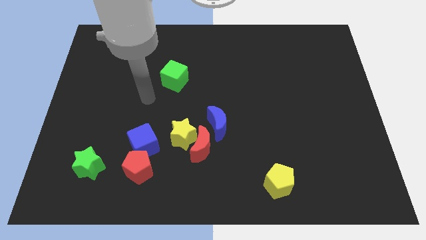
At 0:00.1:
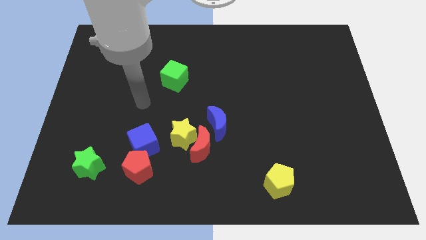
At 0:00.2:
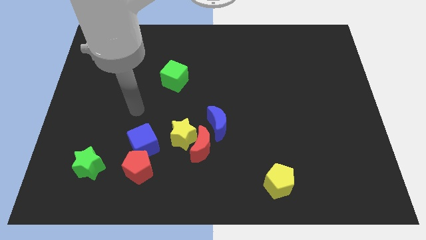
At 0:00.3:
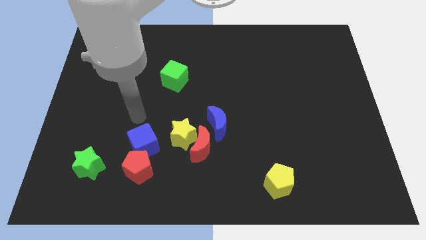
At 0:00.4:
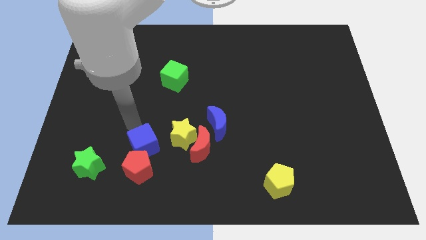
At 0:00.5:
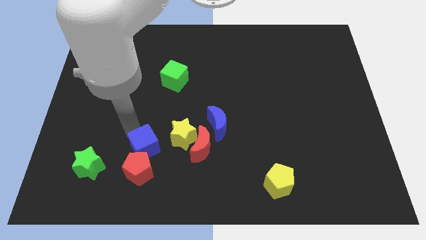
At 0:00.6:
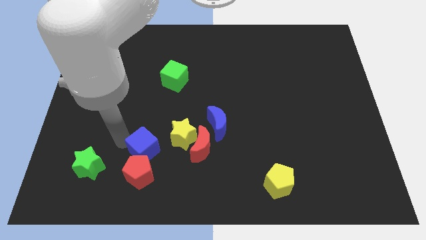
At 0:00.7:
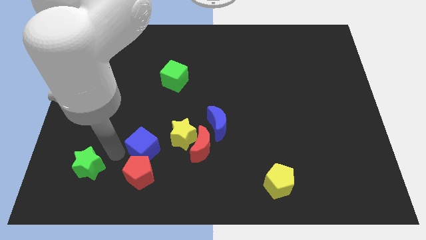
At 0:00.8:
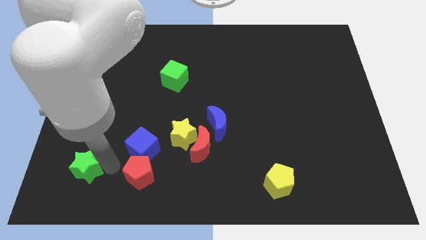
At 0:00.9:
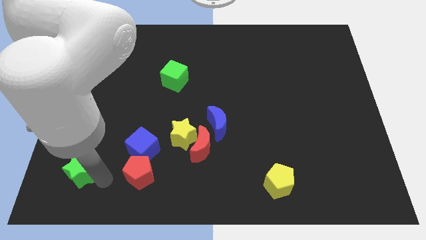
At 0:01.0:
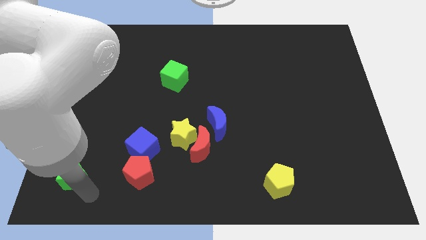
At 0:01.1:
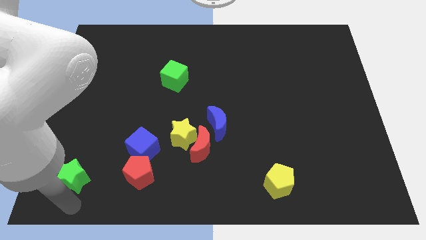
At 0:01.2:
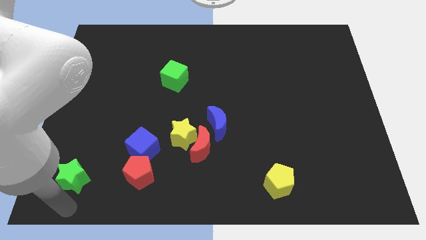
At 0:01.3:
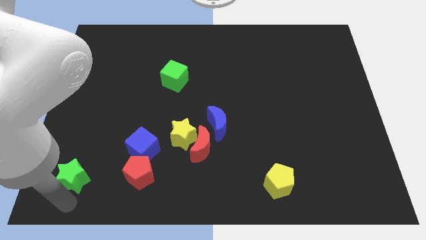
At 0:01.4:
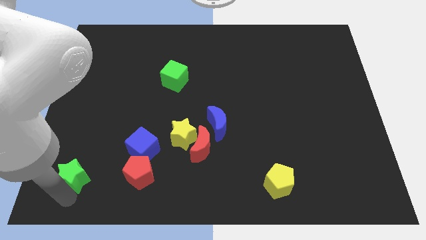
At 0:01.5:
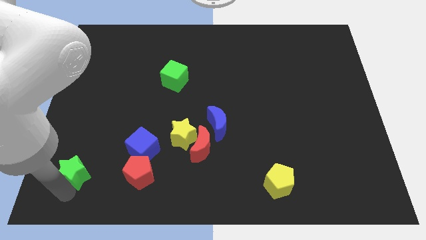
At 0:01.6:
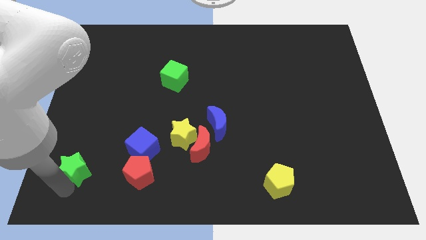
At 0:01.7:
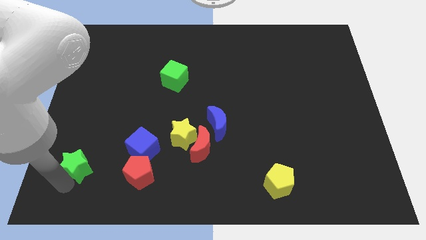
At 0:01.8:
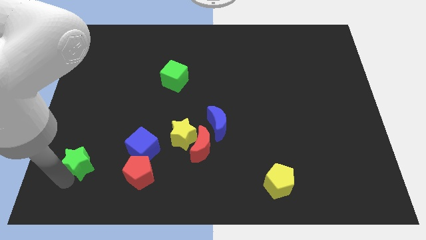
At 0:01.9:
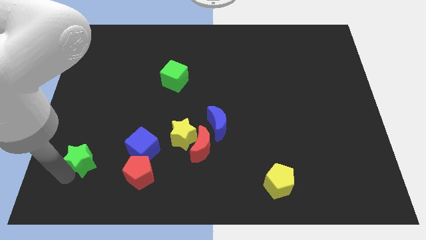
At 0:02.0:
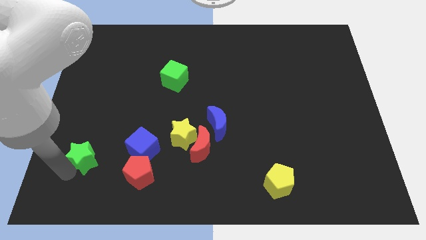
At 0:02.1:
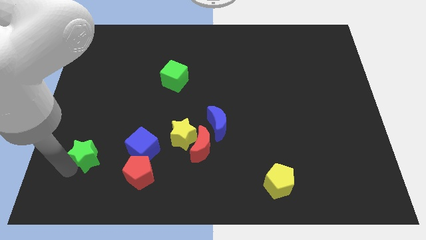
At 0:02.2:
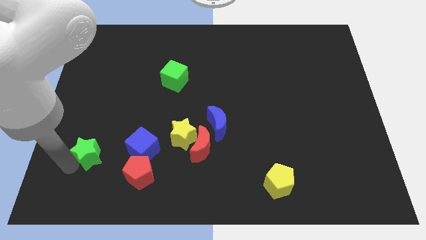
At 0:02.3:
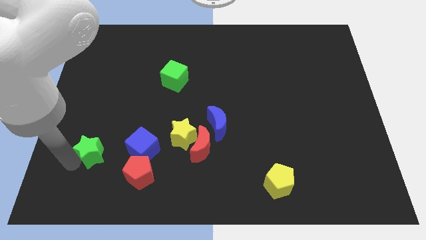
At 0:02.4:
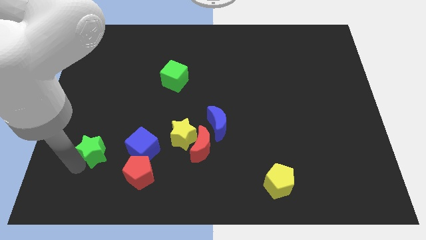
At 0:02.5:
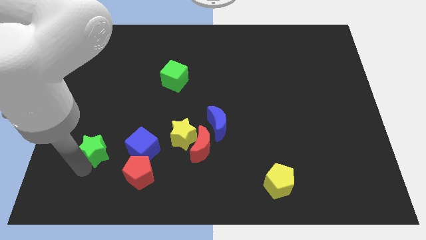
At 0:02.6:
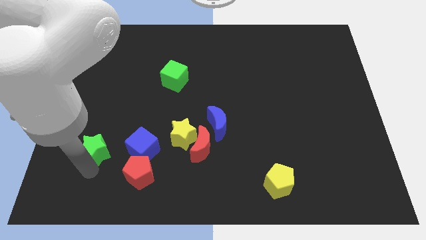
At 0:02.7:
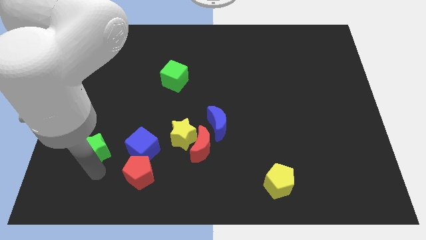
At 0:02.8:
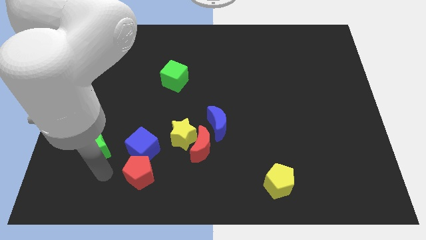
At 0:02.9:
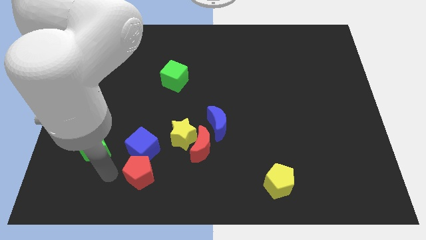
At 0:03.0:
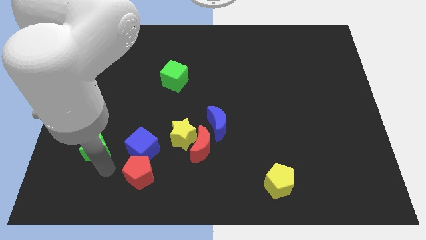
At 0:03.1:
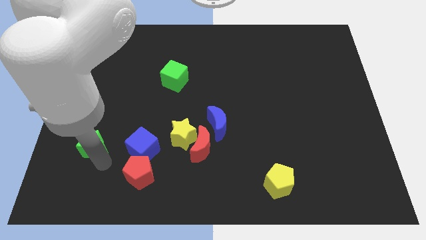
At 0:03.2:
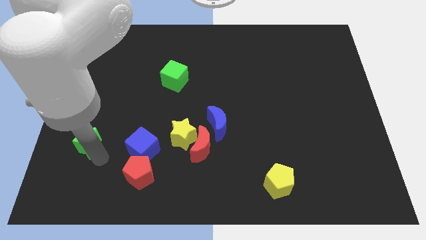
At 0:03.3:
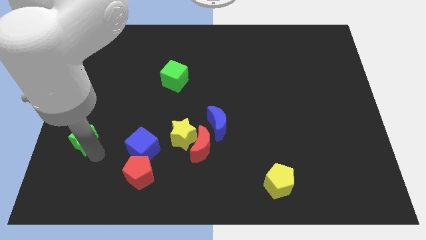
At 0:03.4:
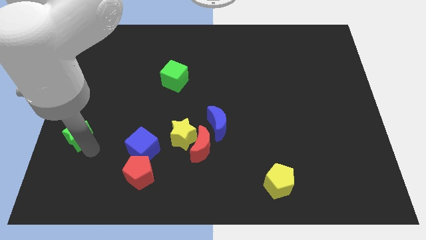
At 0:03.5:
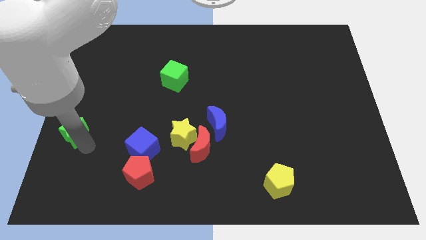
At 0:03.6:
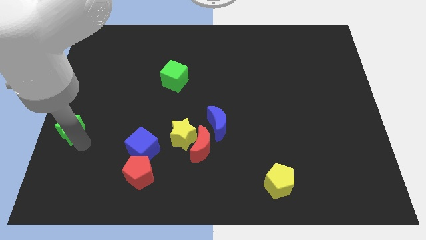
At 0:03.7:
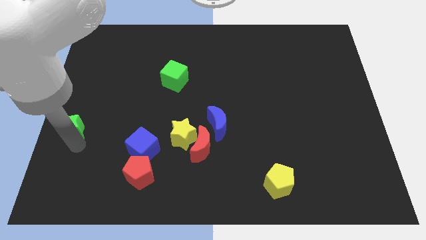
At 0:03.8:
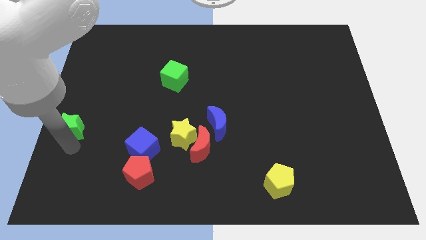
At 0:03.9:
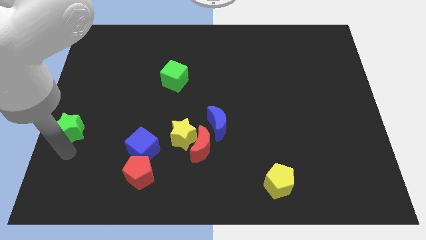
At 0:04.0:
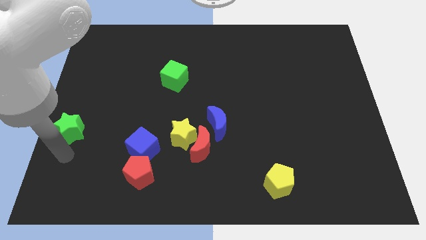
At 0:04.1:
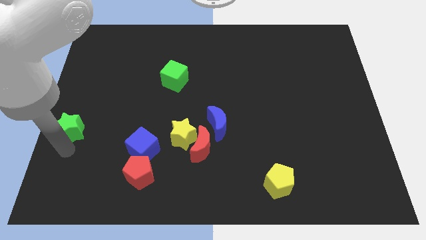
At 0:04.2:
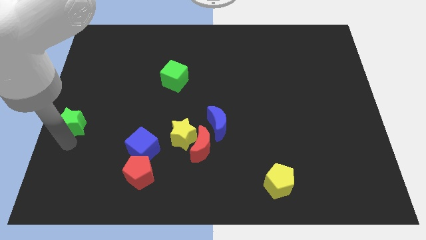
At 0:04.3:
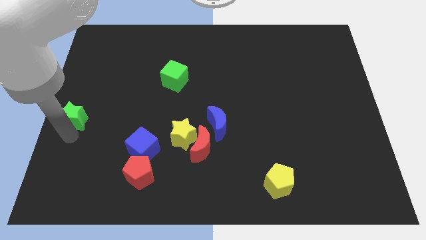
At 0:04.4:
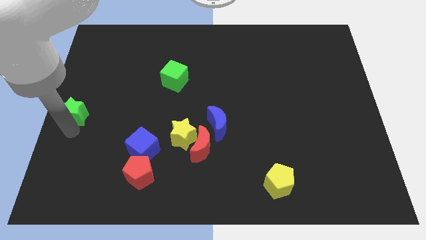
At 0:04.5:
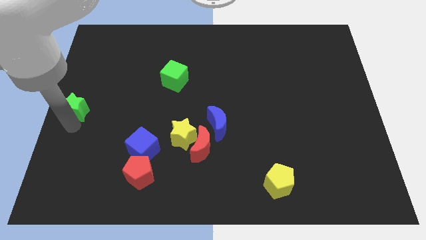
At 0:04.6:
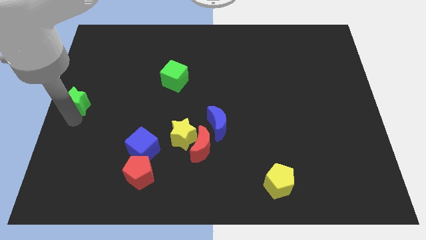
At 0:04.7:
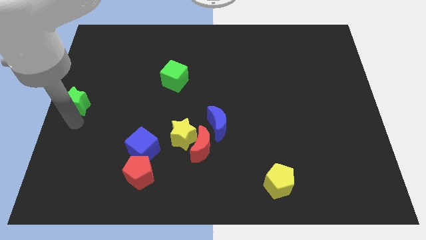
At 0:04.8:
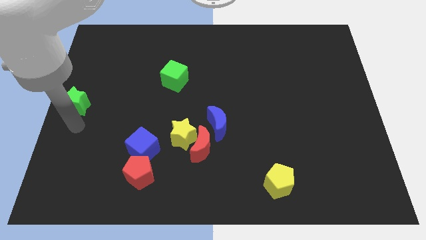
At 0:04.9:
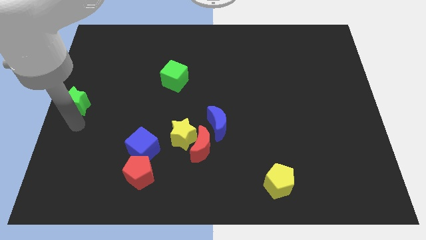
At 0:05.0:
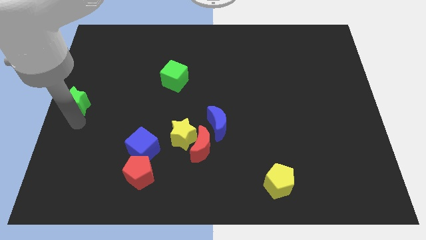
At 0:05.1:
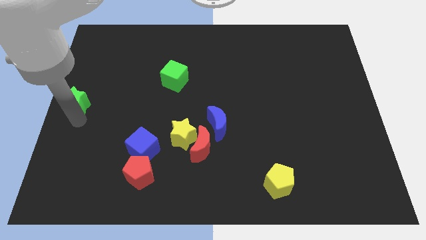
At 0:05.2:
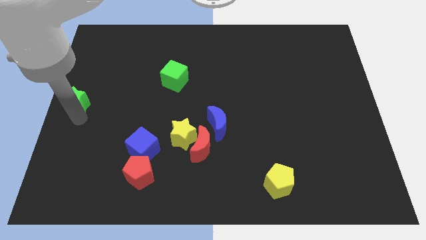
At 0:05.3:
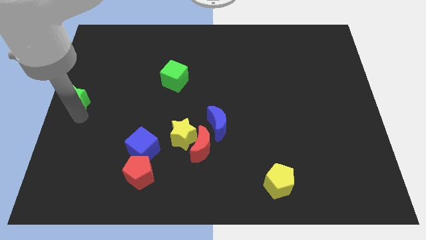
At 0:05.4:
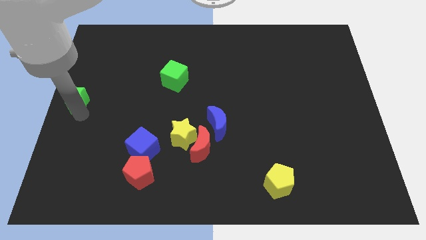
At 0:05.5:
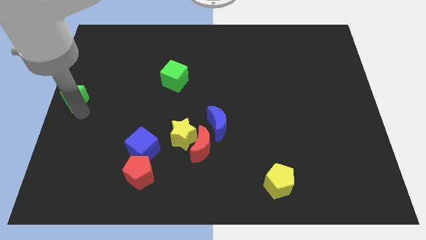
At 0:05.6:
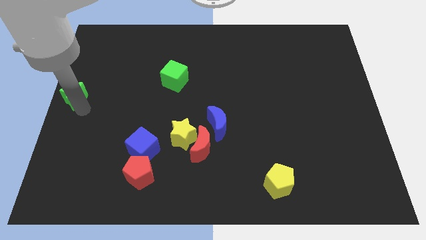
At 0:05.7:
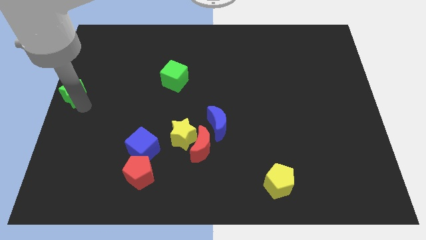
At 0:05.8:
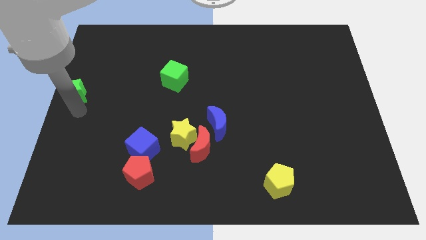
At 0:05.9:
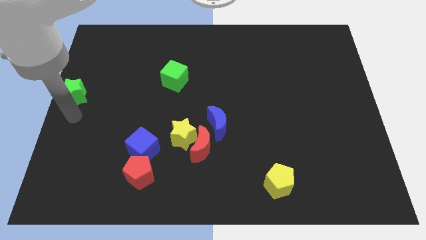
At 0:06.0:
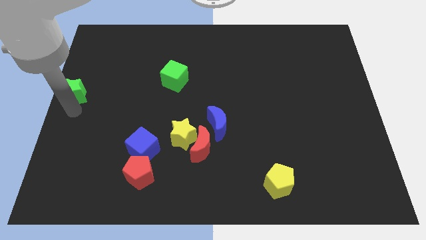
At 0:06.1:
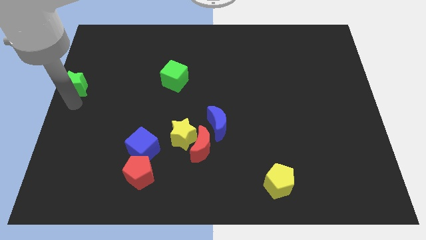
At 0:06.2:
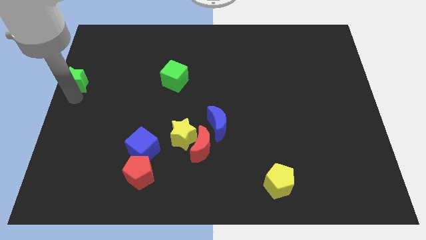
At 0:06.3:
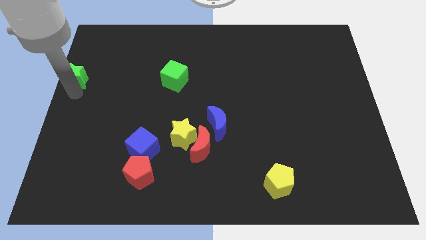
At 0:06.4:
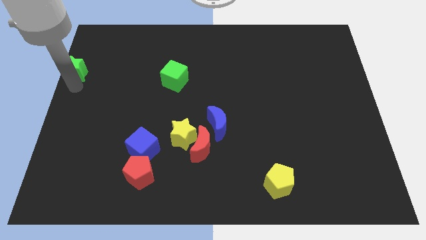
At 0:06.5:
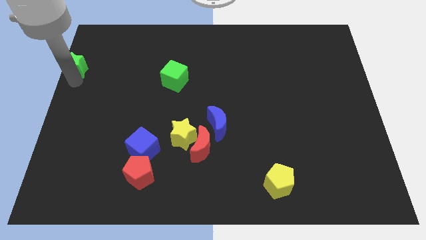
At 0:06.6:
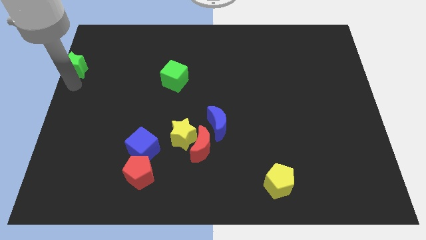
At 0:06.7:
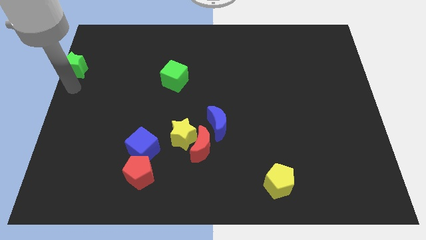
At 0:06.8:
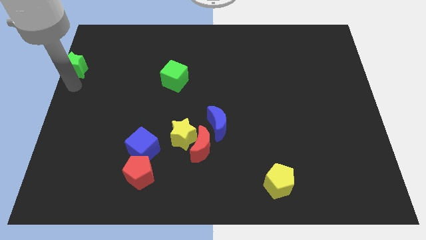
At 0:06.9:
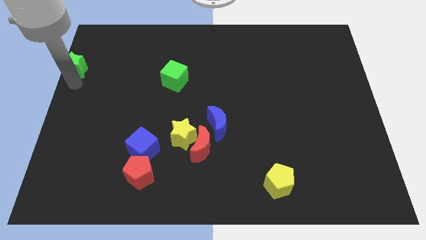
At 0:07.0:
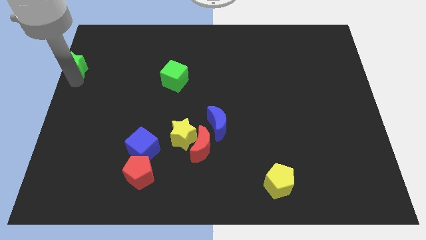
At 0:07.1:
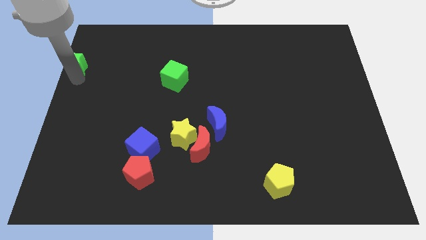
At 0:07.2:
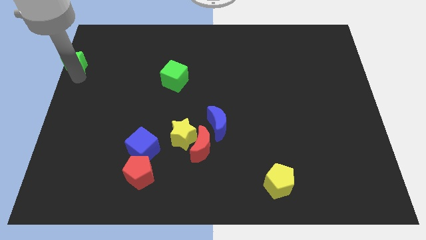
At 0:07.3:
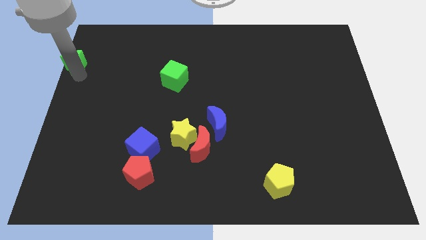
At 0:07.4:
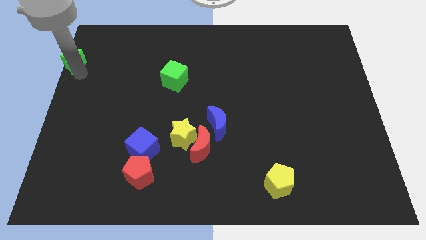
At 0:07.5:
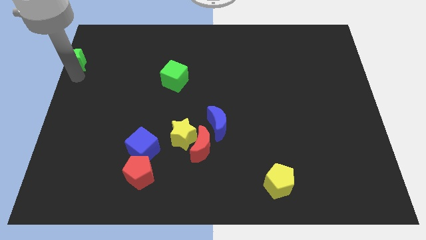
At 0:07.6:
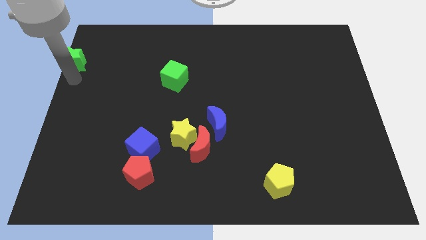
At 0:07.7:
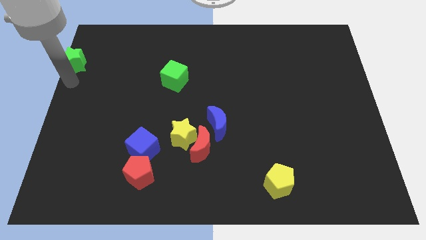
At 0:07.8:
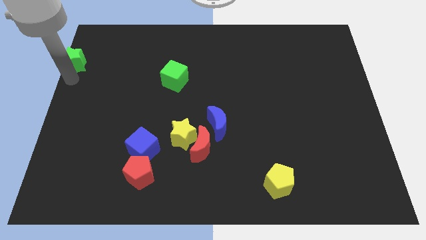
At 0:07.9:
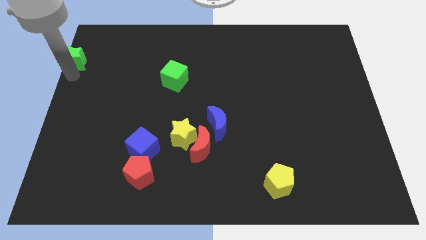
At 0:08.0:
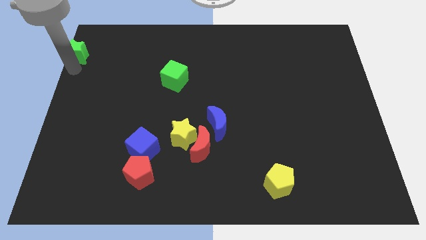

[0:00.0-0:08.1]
move the green star to the top left
